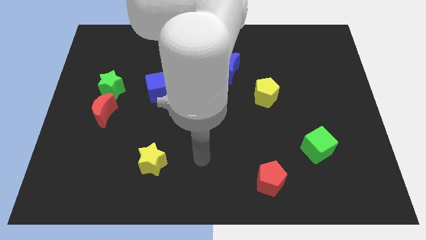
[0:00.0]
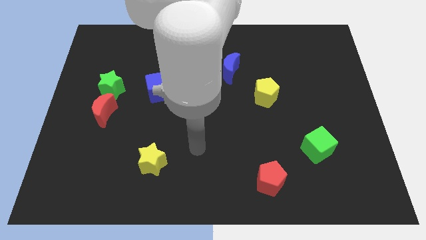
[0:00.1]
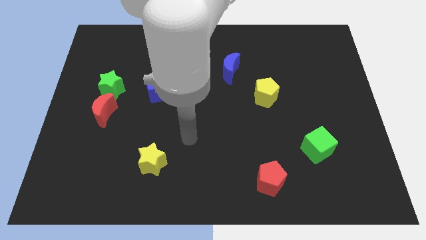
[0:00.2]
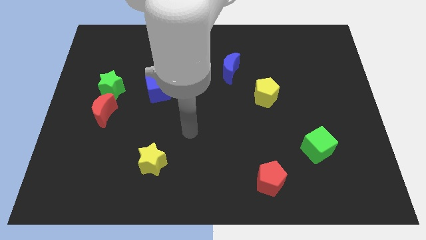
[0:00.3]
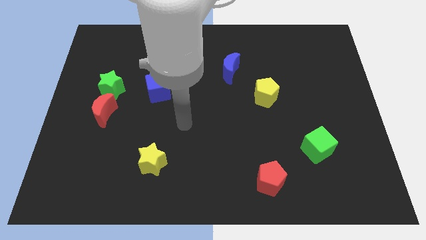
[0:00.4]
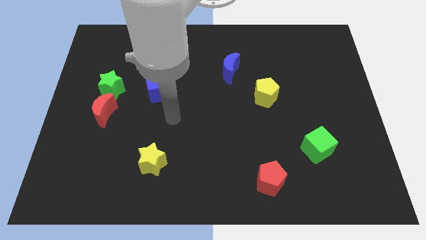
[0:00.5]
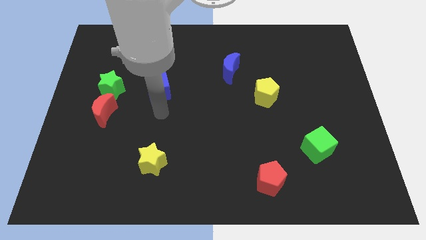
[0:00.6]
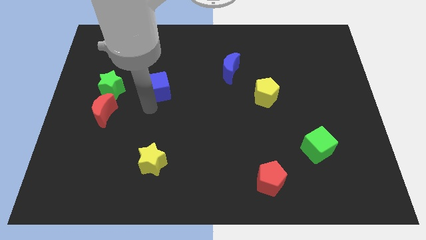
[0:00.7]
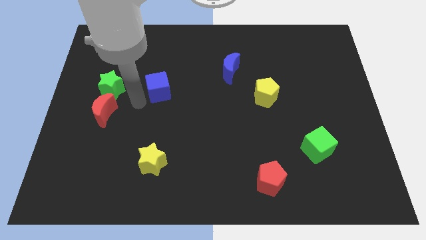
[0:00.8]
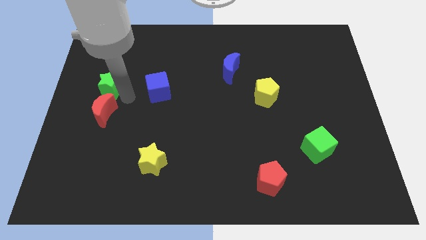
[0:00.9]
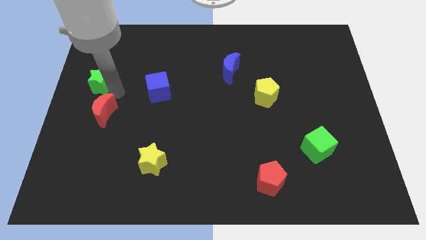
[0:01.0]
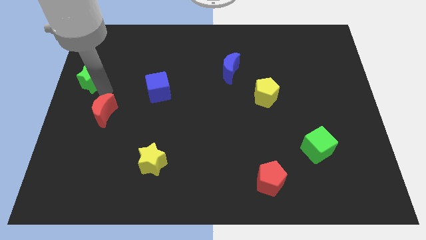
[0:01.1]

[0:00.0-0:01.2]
separate the red moon from the green star

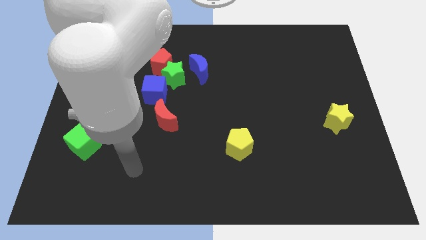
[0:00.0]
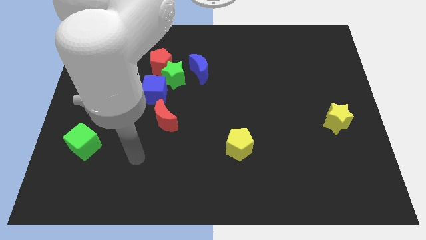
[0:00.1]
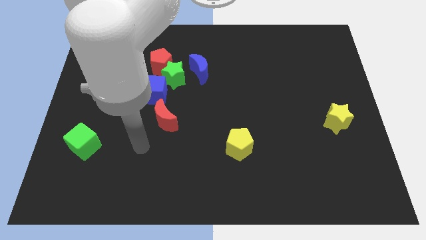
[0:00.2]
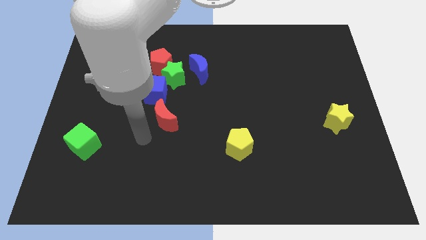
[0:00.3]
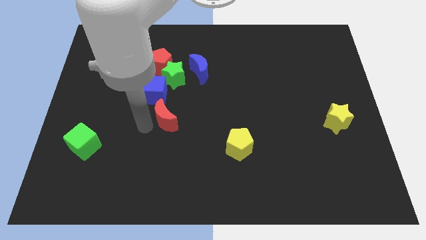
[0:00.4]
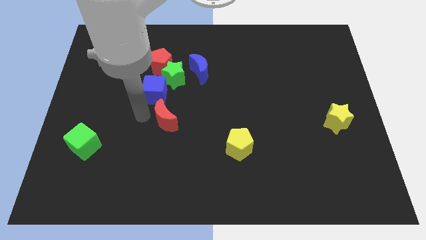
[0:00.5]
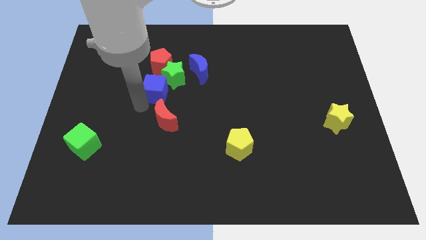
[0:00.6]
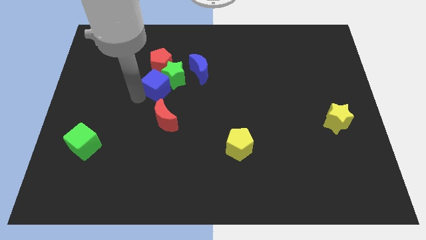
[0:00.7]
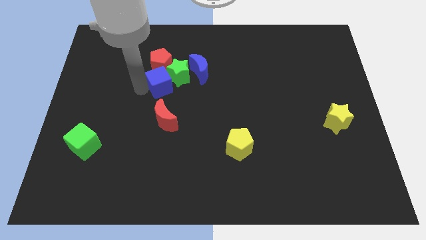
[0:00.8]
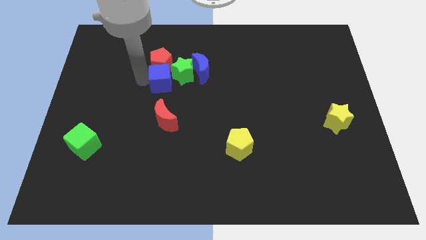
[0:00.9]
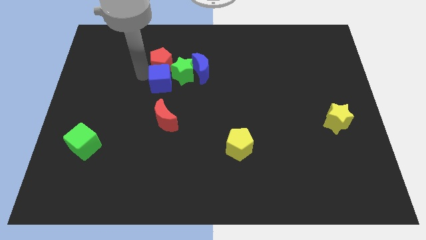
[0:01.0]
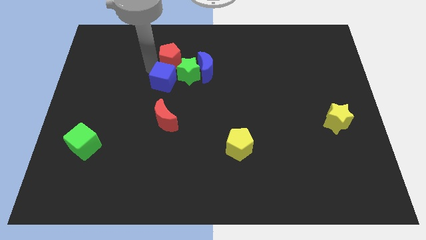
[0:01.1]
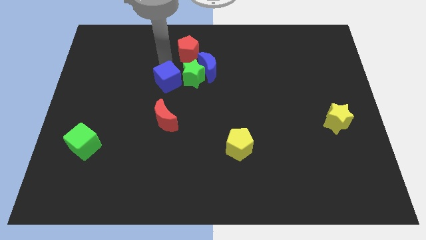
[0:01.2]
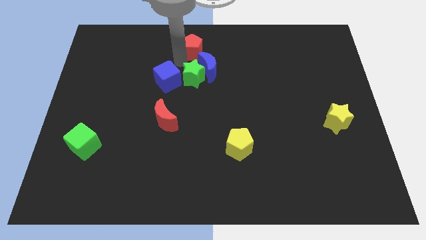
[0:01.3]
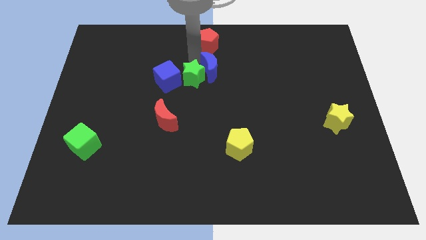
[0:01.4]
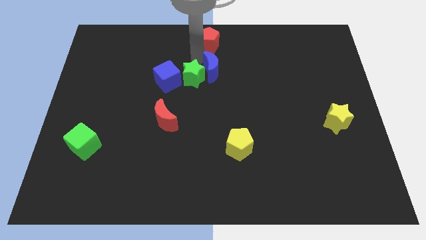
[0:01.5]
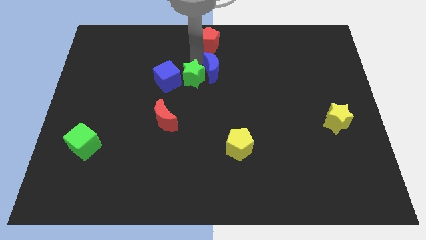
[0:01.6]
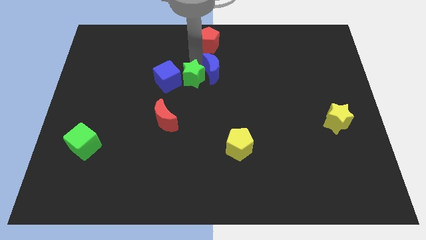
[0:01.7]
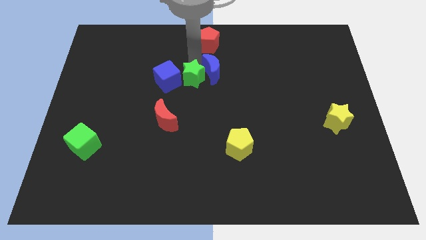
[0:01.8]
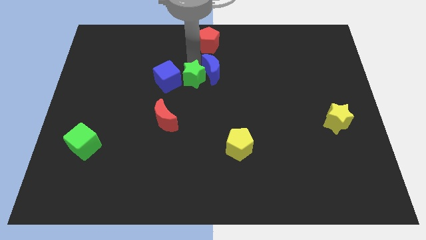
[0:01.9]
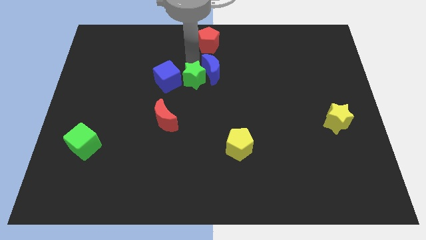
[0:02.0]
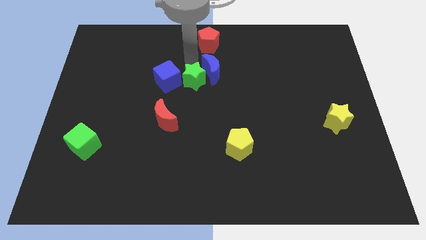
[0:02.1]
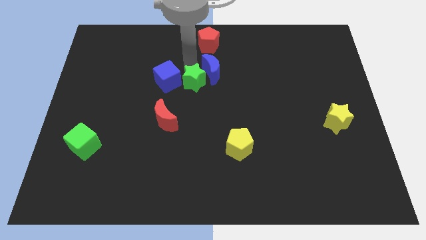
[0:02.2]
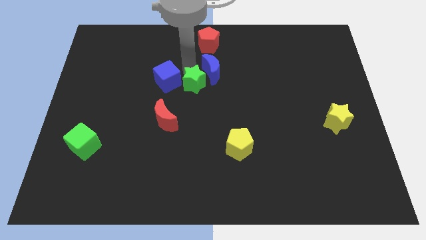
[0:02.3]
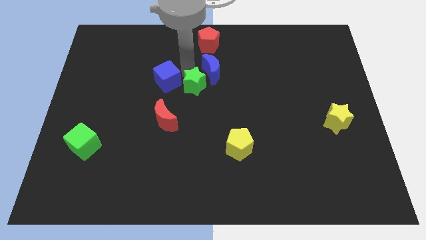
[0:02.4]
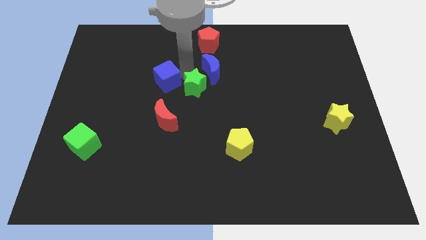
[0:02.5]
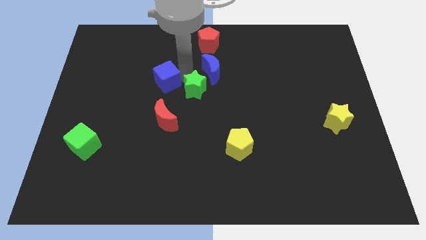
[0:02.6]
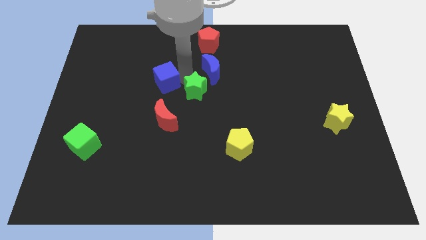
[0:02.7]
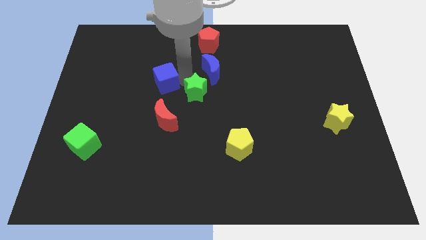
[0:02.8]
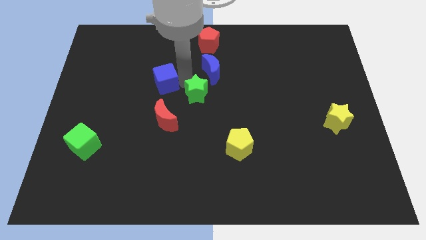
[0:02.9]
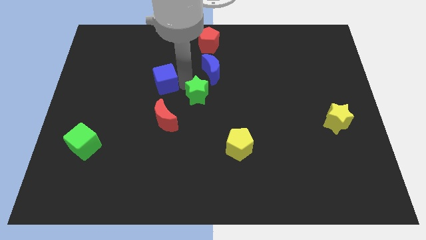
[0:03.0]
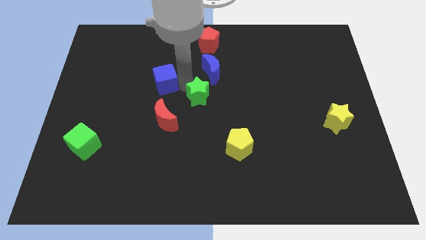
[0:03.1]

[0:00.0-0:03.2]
pull the green star apart from the group

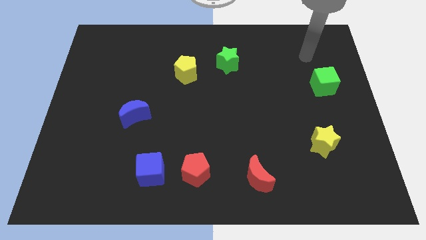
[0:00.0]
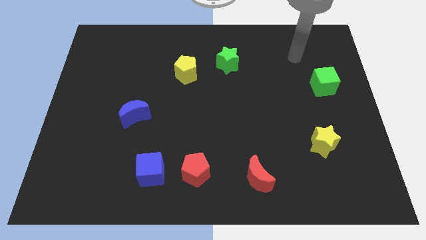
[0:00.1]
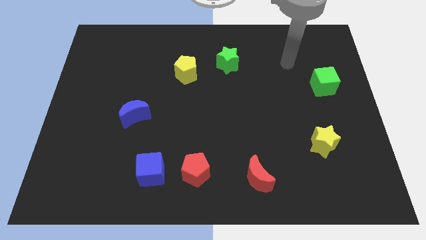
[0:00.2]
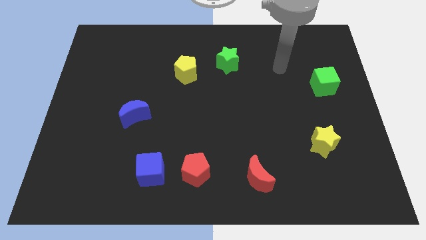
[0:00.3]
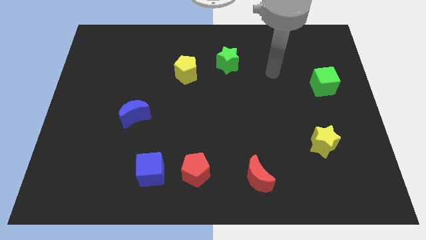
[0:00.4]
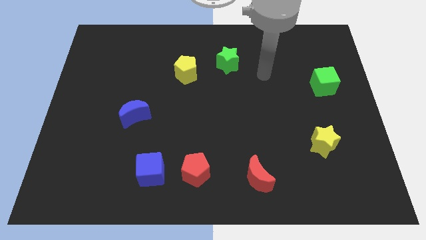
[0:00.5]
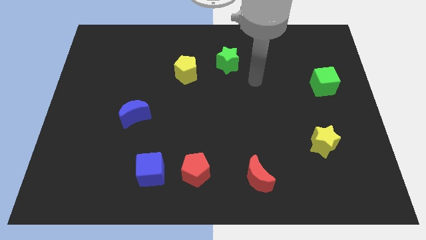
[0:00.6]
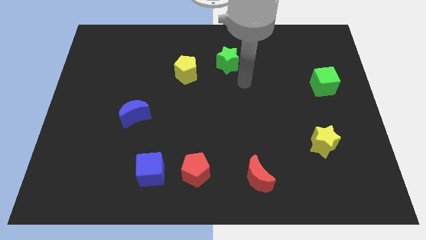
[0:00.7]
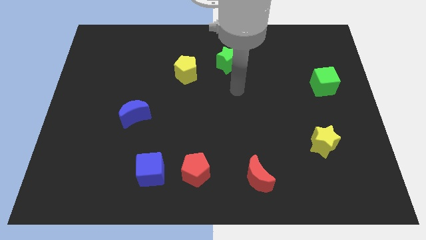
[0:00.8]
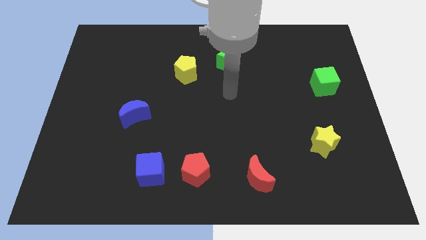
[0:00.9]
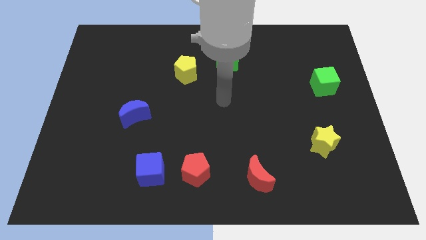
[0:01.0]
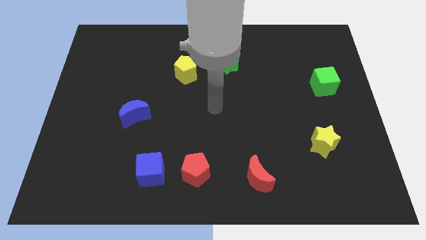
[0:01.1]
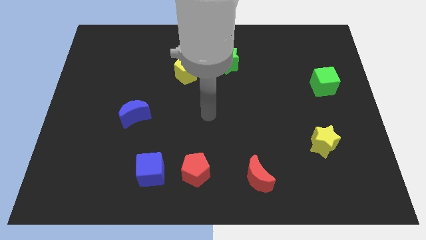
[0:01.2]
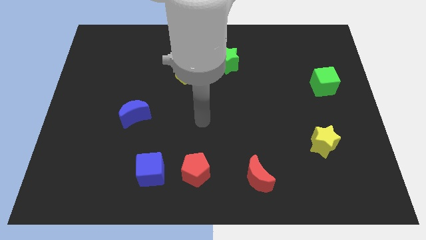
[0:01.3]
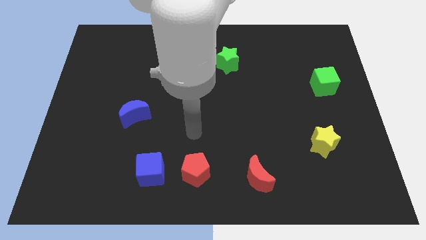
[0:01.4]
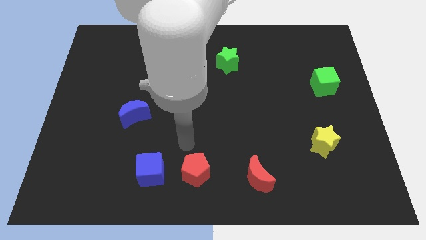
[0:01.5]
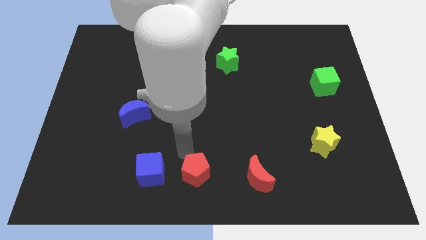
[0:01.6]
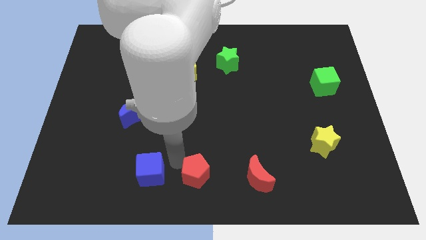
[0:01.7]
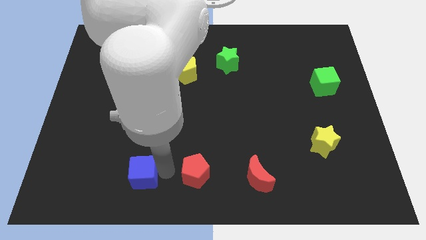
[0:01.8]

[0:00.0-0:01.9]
pull the red pentagon apart from the blue cube

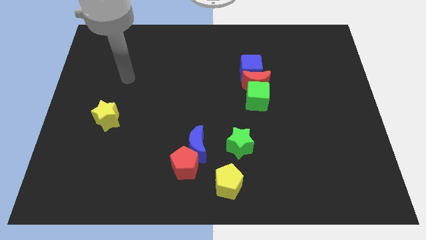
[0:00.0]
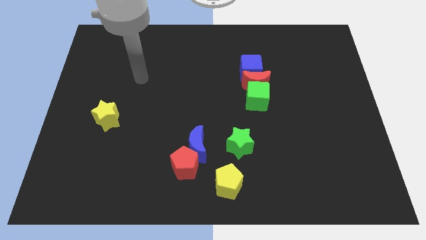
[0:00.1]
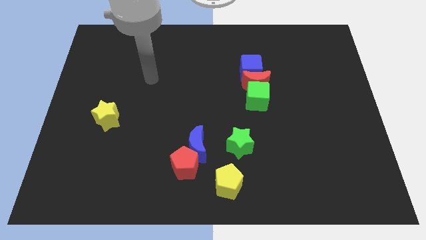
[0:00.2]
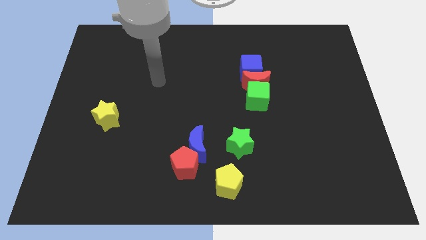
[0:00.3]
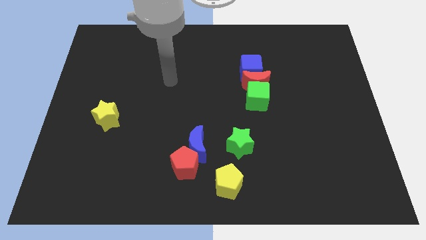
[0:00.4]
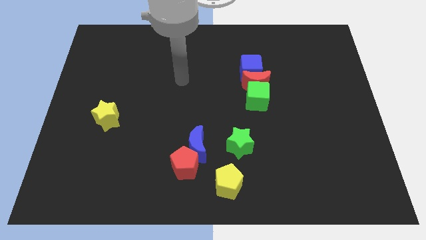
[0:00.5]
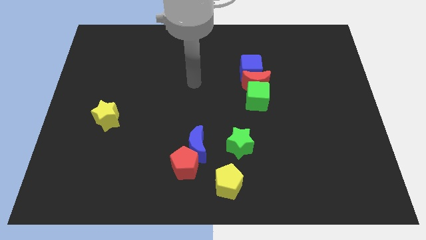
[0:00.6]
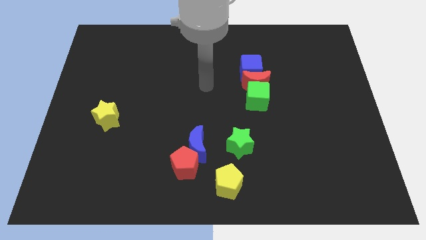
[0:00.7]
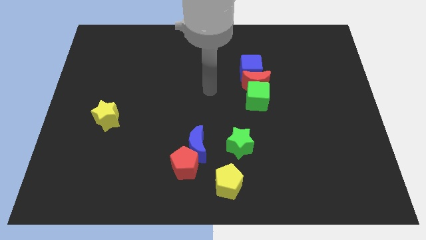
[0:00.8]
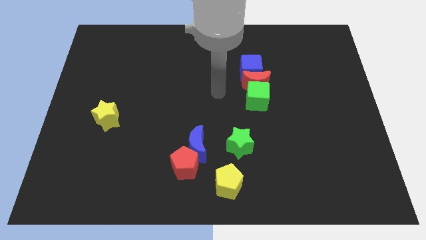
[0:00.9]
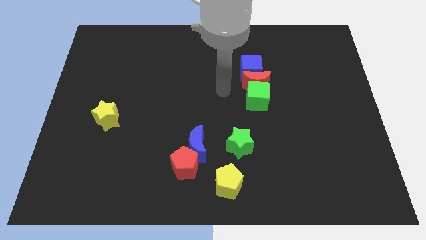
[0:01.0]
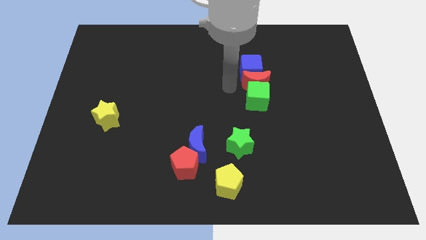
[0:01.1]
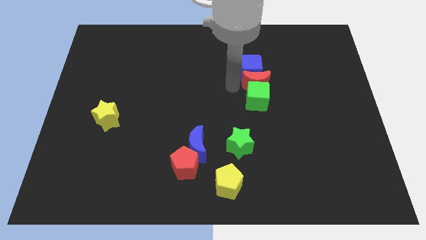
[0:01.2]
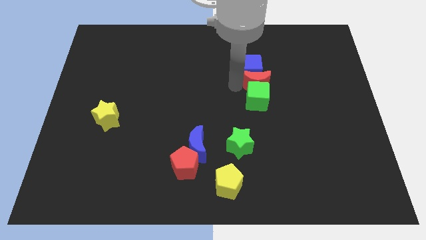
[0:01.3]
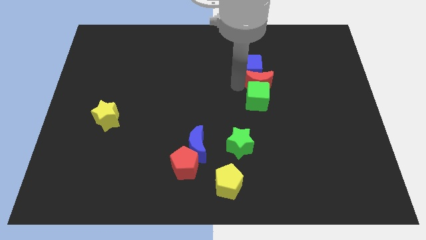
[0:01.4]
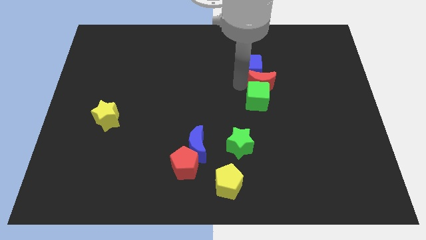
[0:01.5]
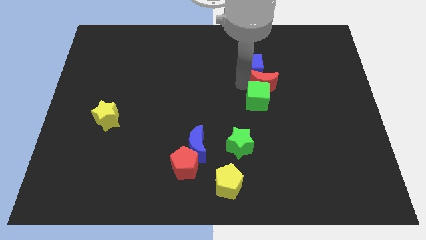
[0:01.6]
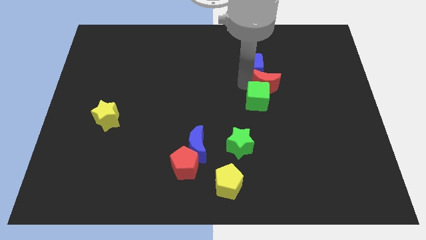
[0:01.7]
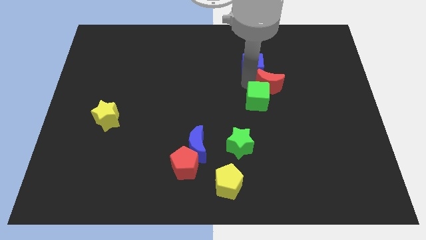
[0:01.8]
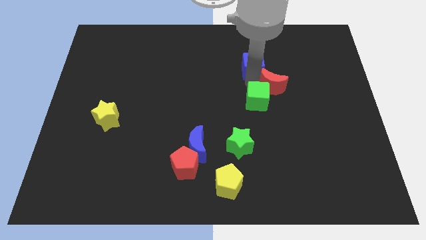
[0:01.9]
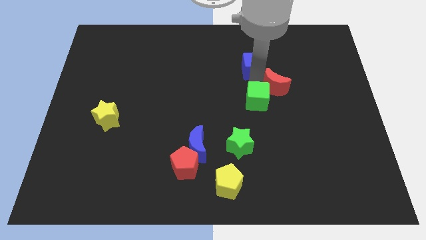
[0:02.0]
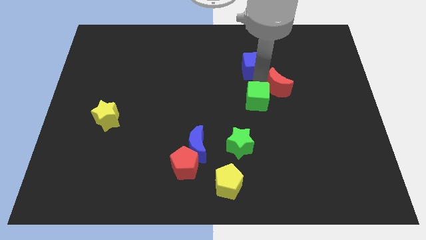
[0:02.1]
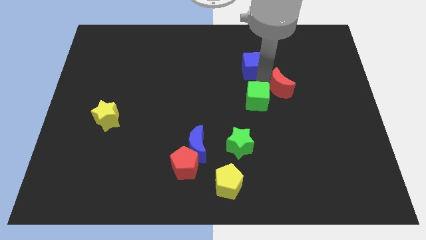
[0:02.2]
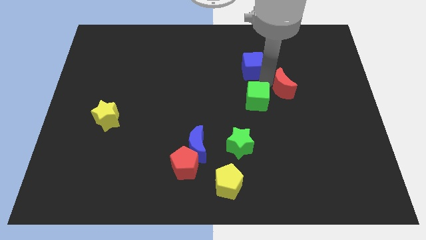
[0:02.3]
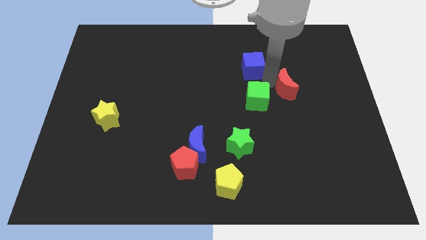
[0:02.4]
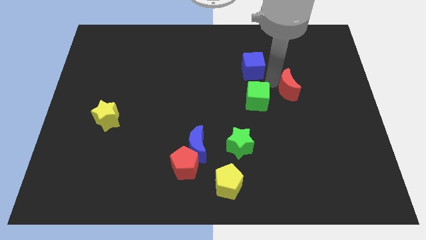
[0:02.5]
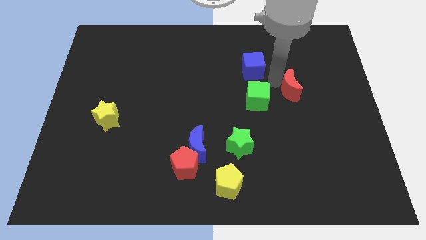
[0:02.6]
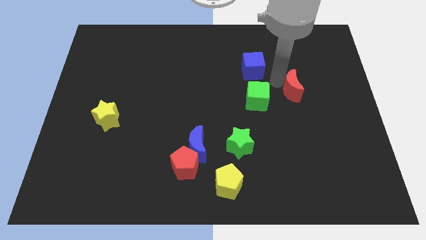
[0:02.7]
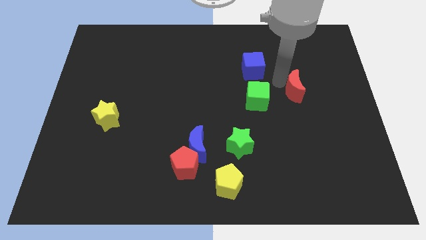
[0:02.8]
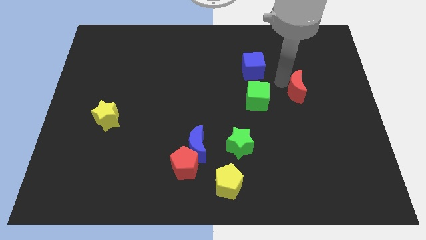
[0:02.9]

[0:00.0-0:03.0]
separate the red moon from the green cube and blue cube
